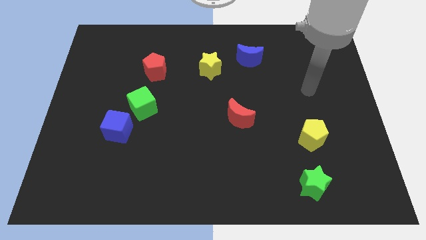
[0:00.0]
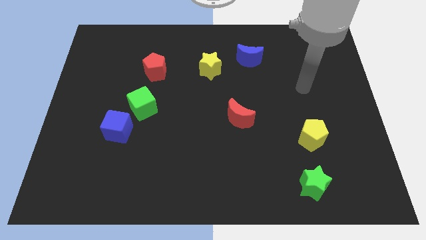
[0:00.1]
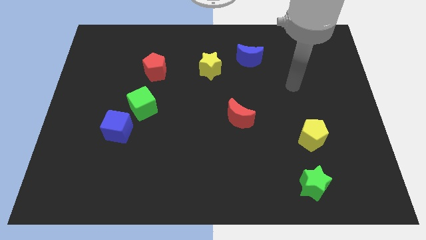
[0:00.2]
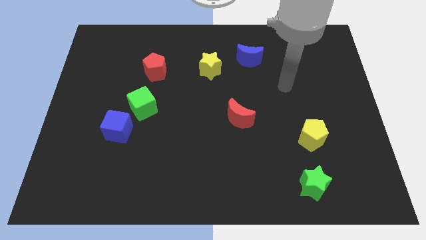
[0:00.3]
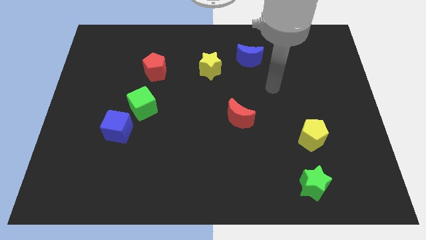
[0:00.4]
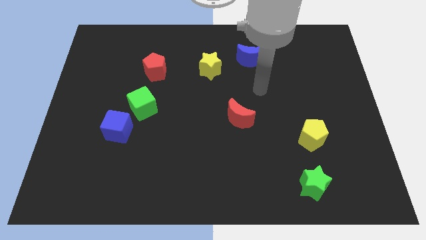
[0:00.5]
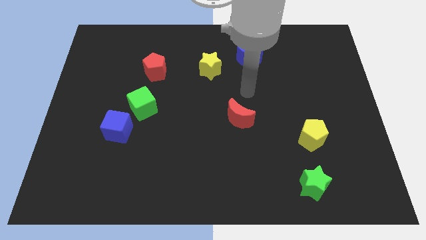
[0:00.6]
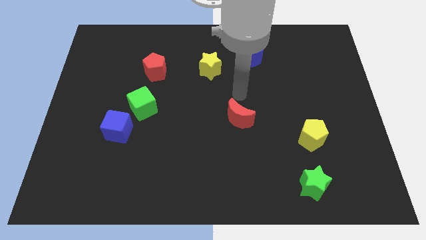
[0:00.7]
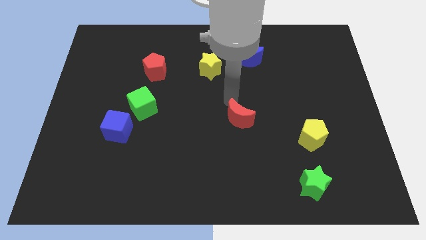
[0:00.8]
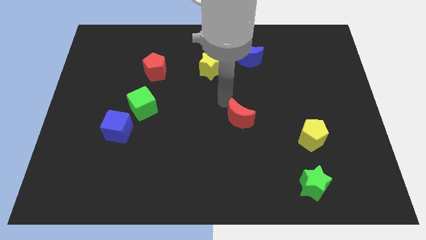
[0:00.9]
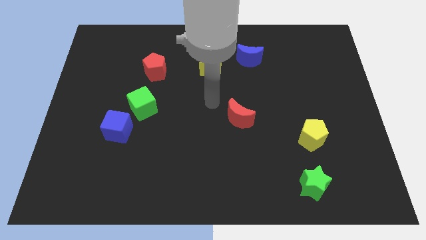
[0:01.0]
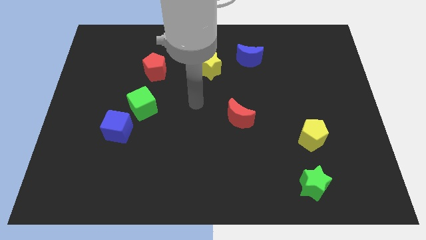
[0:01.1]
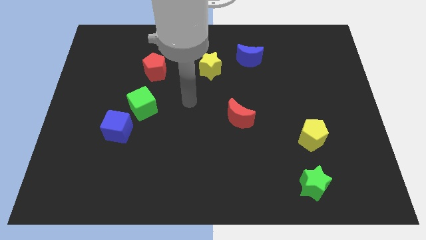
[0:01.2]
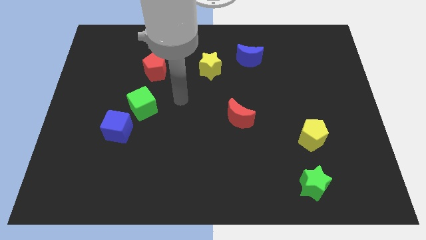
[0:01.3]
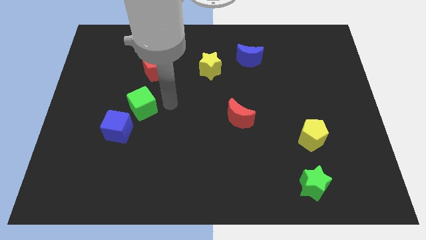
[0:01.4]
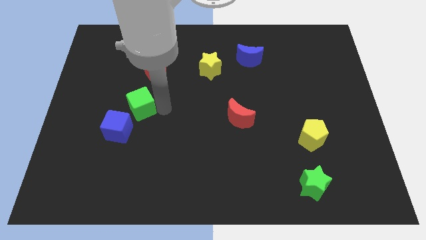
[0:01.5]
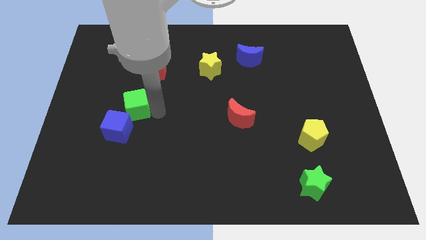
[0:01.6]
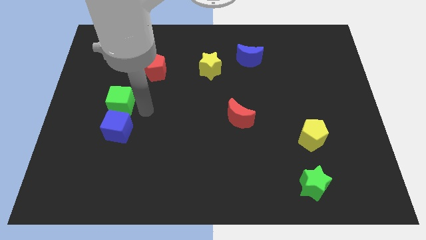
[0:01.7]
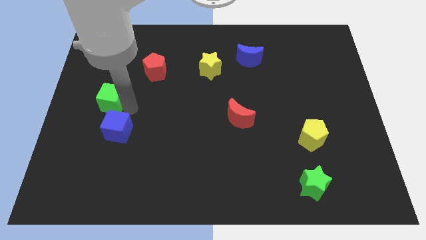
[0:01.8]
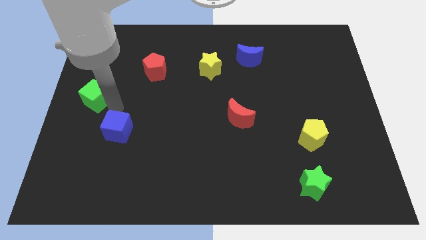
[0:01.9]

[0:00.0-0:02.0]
pull the blue cube apart from the green cube

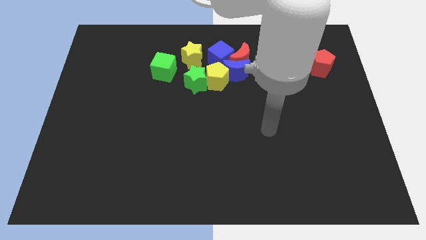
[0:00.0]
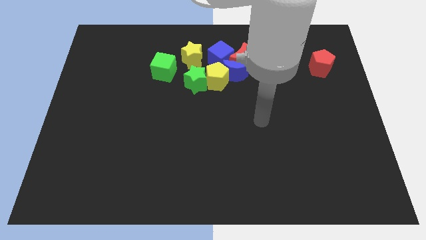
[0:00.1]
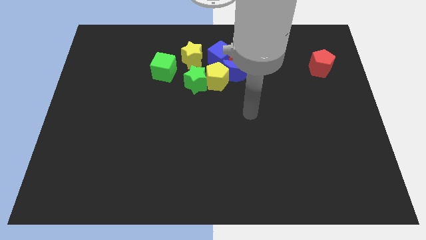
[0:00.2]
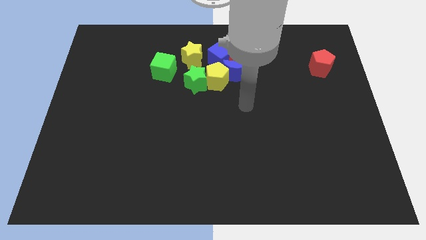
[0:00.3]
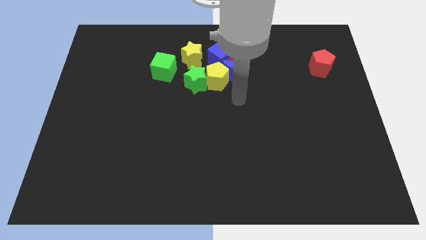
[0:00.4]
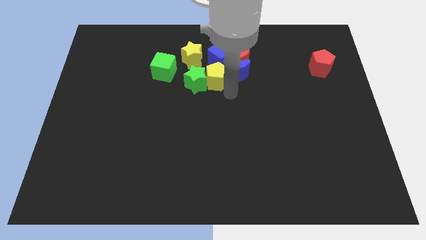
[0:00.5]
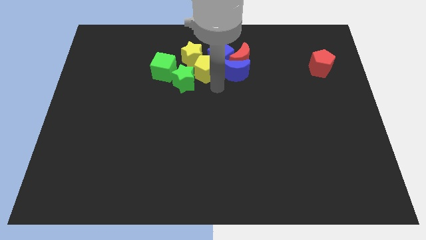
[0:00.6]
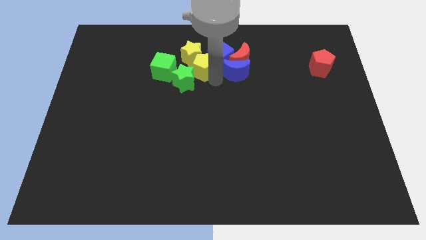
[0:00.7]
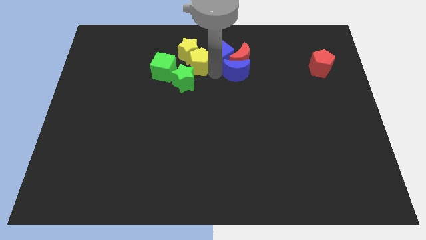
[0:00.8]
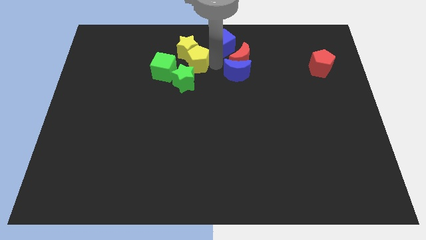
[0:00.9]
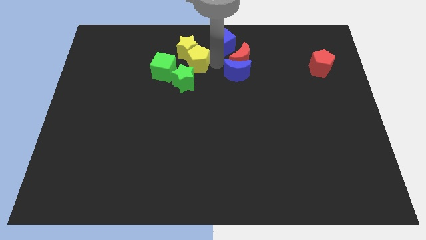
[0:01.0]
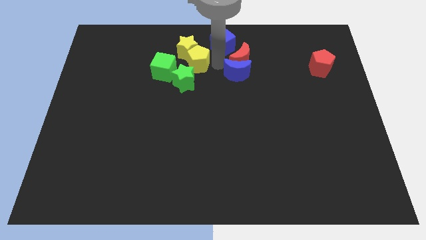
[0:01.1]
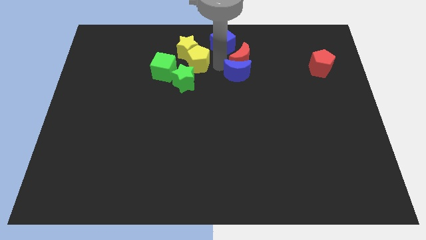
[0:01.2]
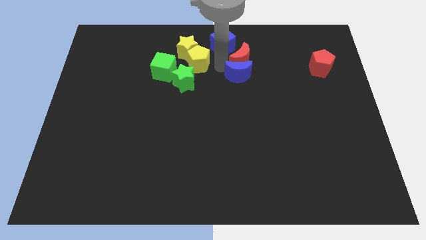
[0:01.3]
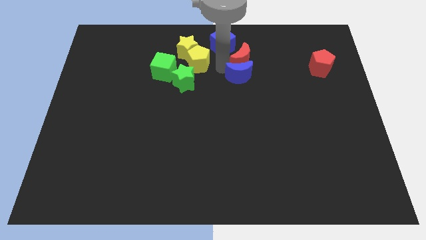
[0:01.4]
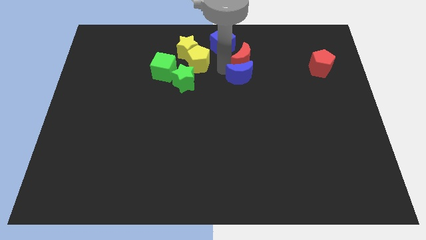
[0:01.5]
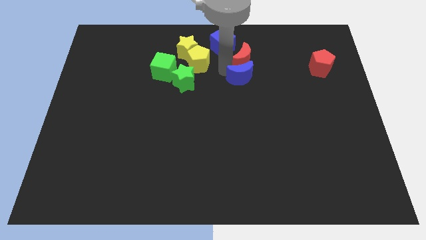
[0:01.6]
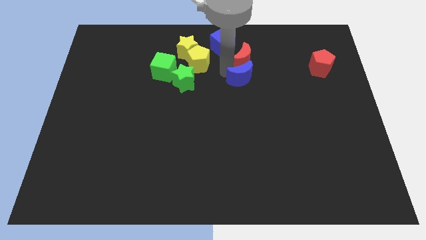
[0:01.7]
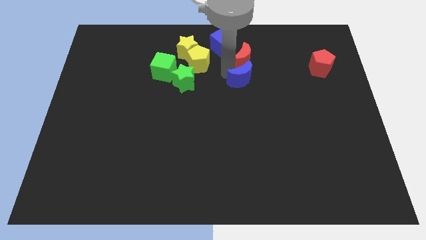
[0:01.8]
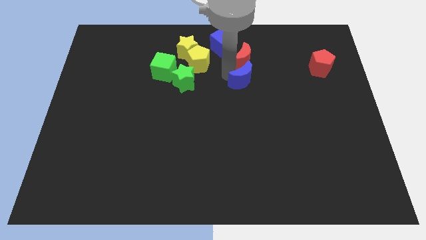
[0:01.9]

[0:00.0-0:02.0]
separate the blue moon from the group of blocks

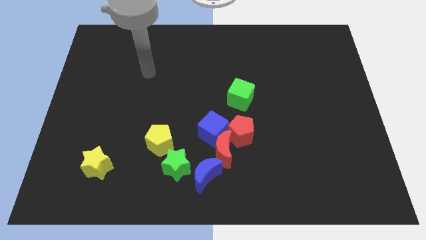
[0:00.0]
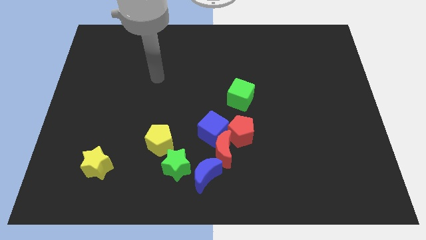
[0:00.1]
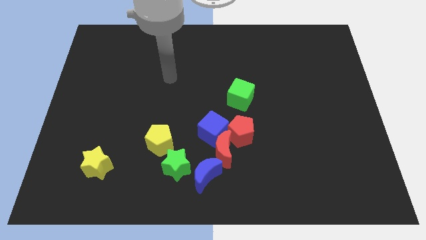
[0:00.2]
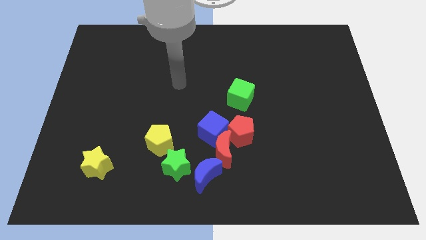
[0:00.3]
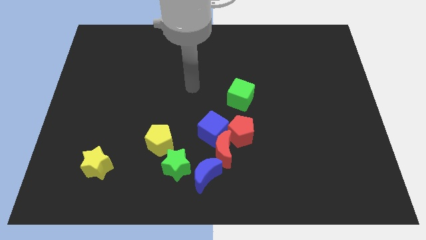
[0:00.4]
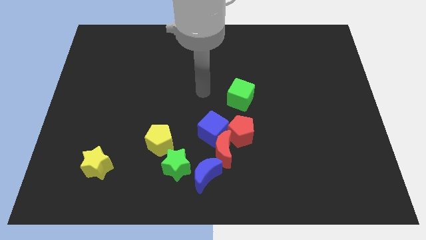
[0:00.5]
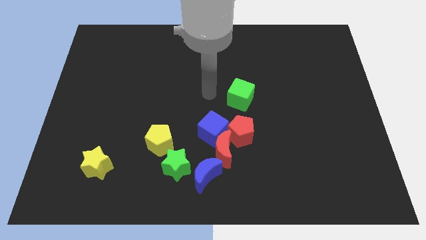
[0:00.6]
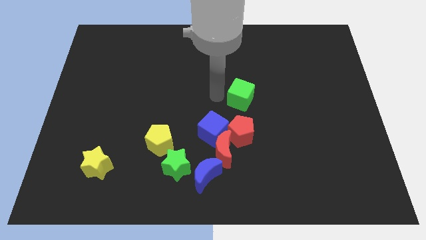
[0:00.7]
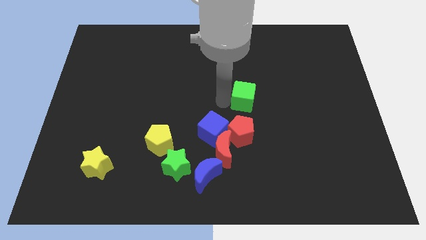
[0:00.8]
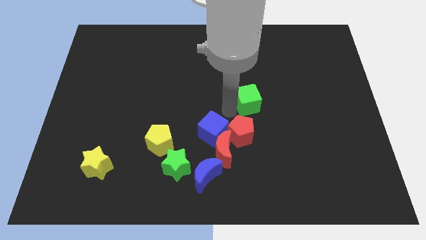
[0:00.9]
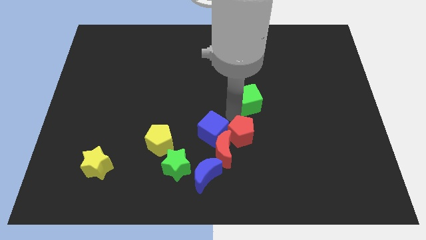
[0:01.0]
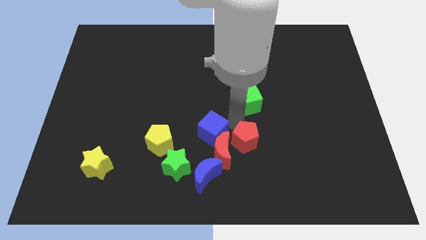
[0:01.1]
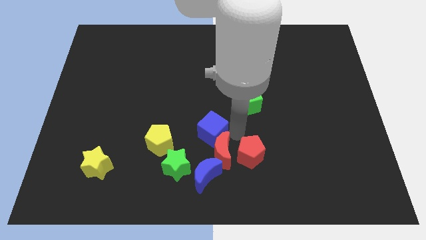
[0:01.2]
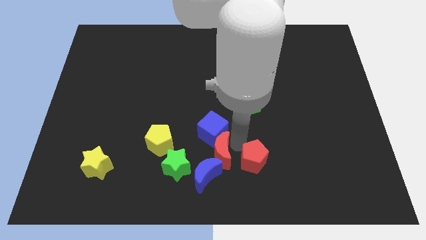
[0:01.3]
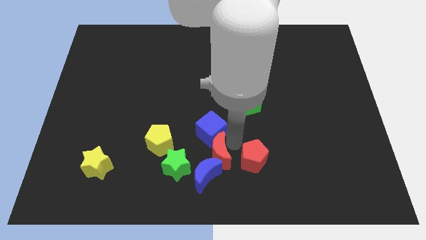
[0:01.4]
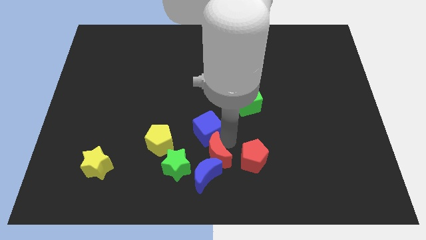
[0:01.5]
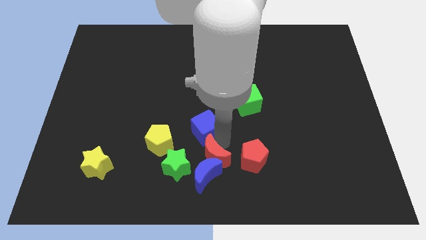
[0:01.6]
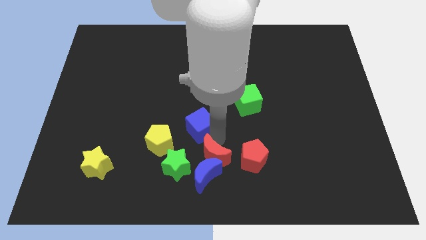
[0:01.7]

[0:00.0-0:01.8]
move the blue cube away from the red moon and red pentagon

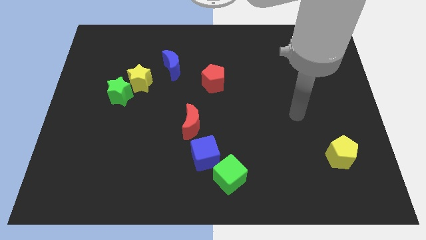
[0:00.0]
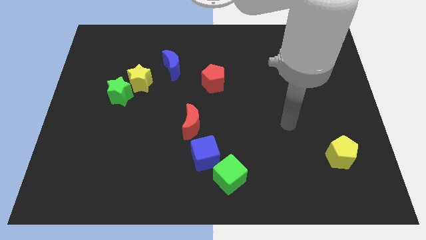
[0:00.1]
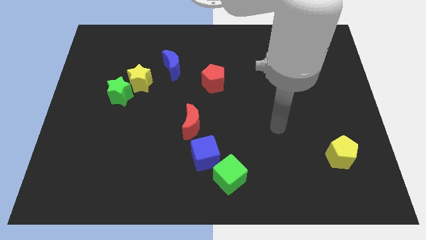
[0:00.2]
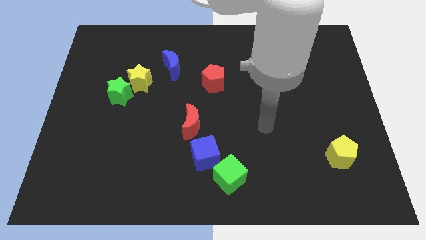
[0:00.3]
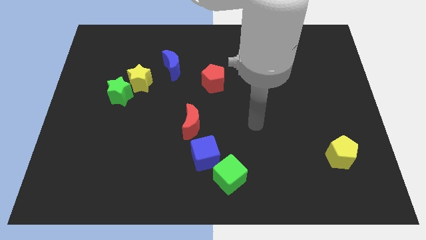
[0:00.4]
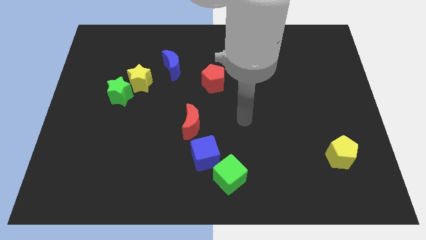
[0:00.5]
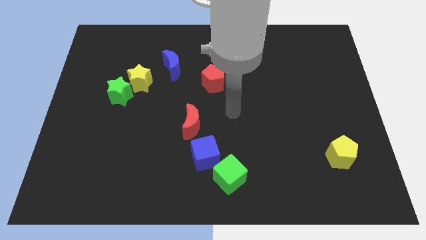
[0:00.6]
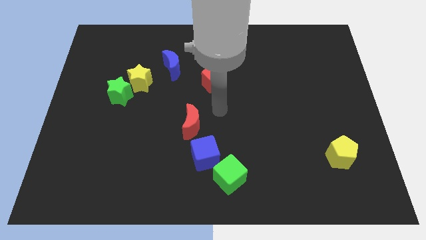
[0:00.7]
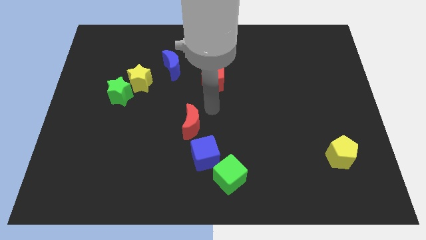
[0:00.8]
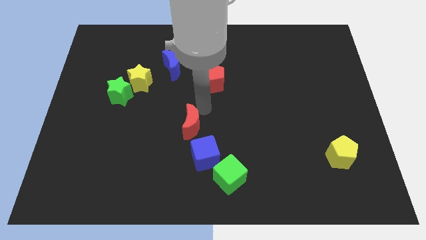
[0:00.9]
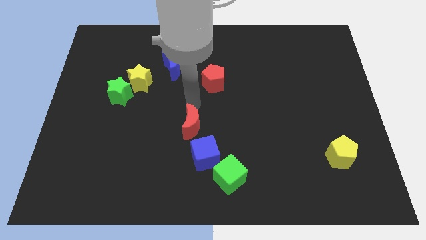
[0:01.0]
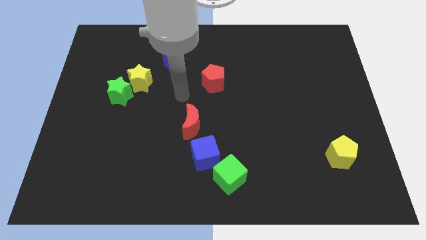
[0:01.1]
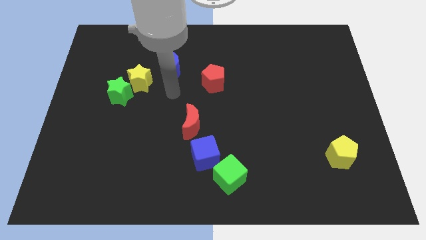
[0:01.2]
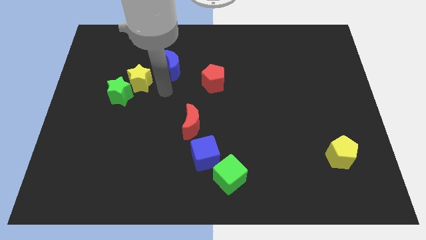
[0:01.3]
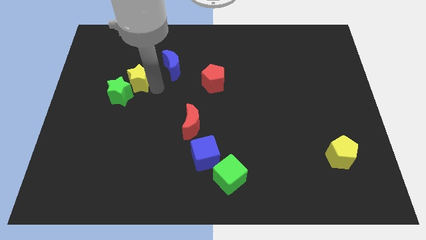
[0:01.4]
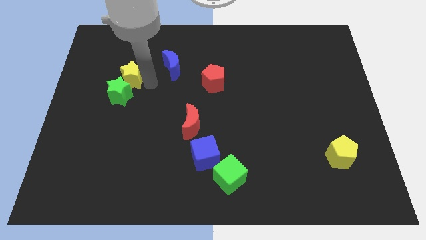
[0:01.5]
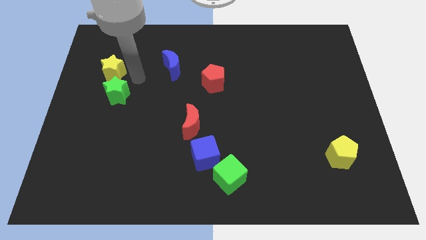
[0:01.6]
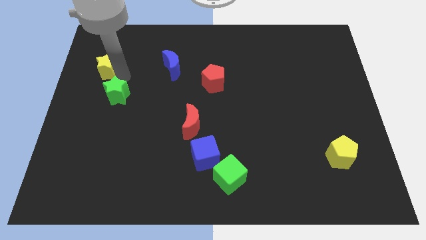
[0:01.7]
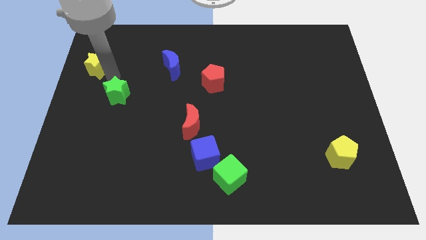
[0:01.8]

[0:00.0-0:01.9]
move the green star away from the yellow star

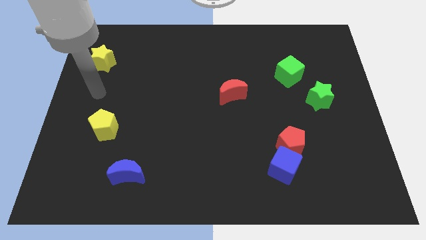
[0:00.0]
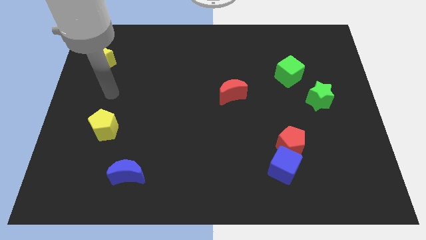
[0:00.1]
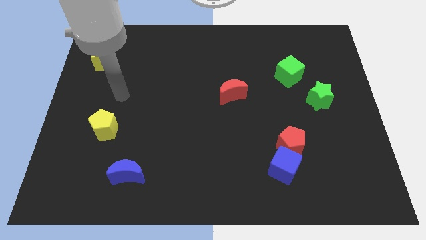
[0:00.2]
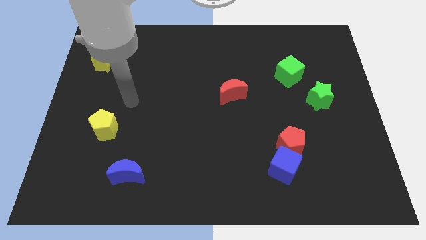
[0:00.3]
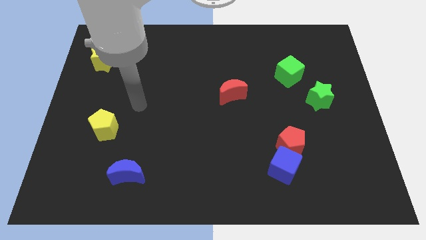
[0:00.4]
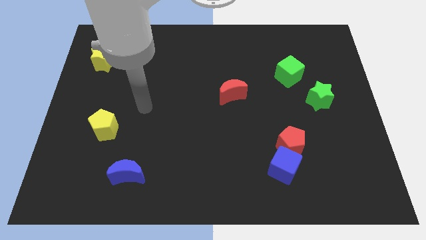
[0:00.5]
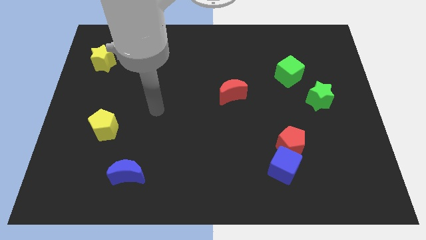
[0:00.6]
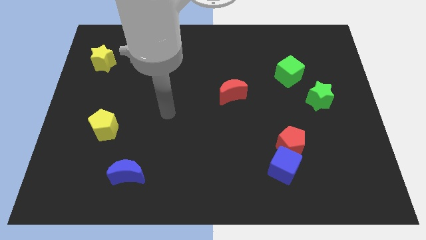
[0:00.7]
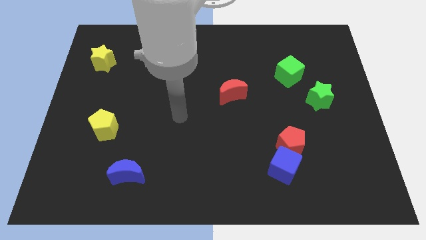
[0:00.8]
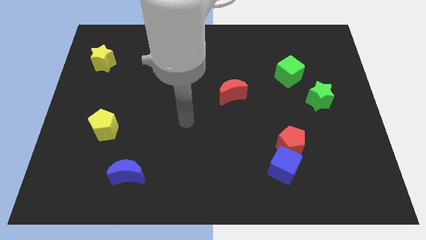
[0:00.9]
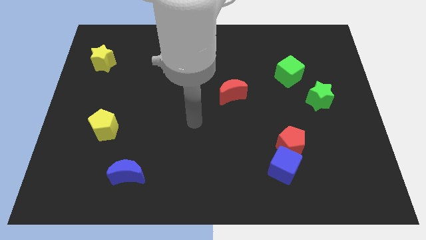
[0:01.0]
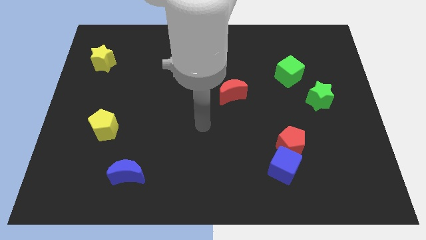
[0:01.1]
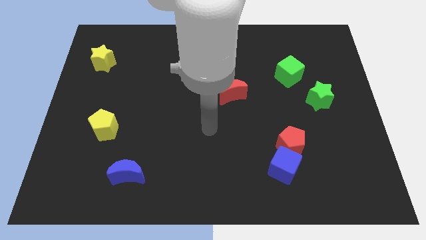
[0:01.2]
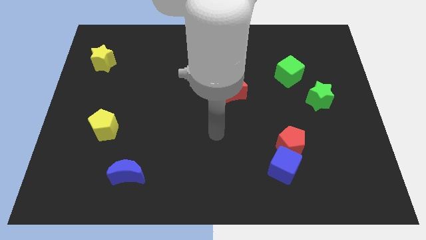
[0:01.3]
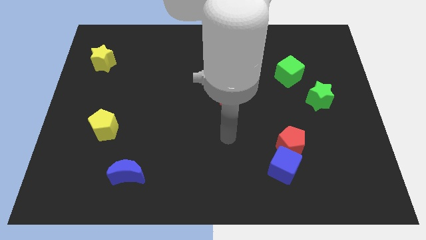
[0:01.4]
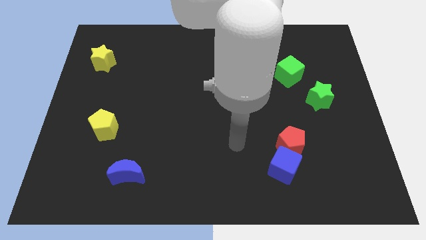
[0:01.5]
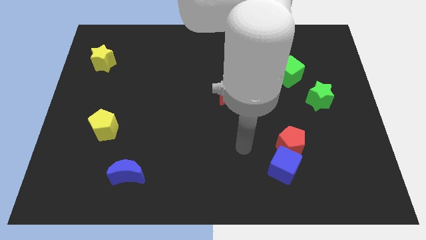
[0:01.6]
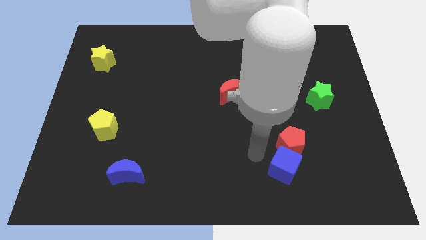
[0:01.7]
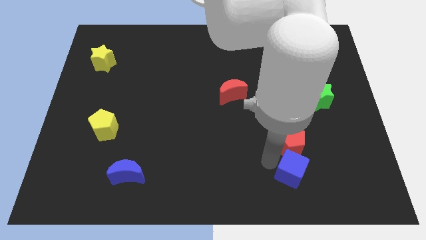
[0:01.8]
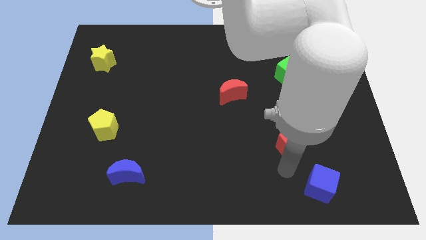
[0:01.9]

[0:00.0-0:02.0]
separate the red pentagon from the blue cube
